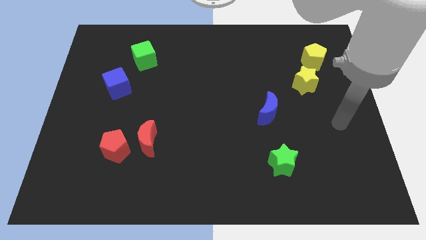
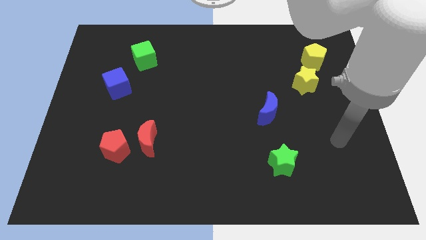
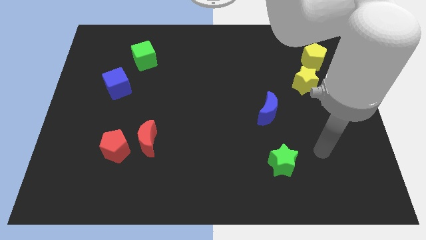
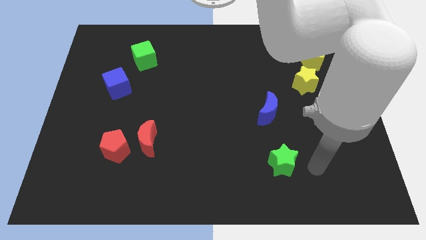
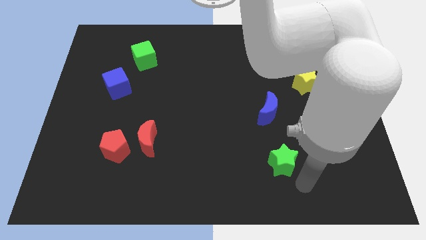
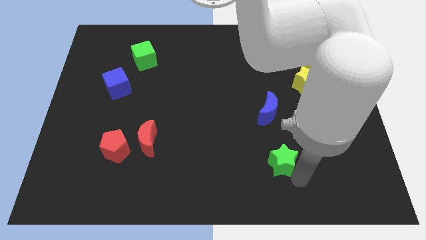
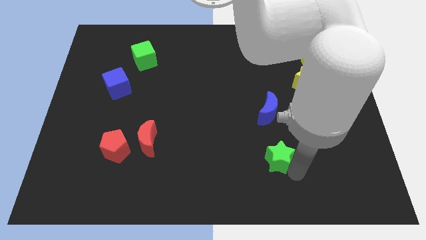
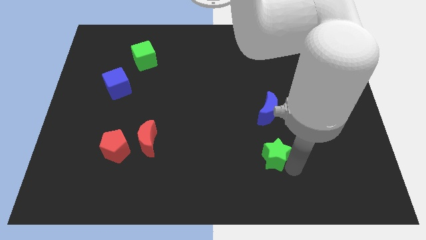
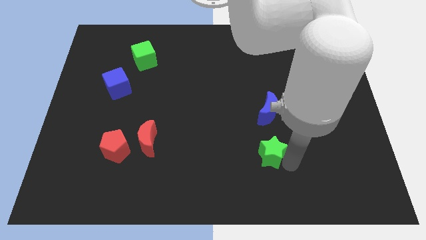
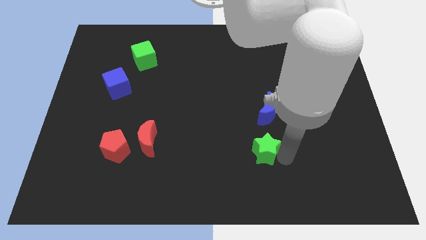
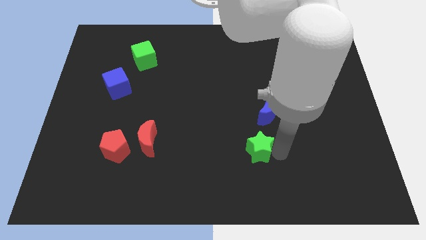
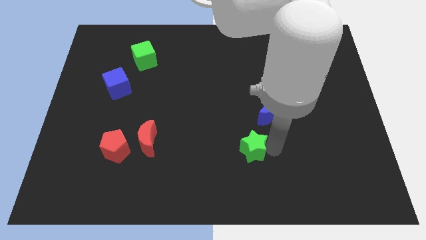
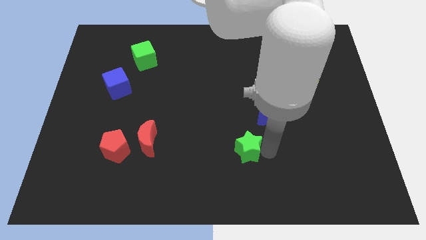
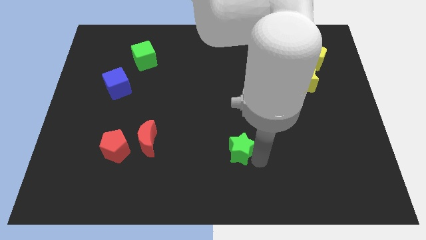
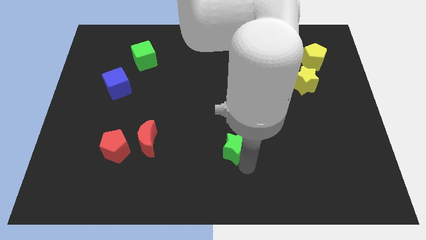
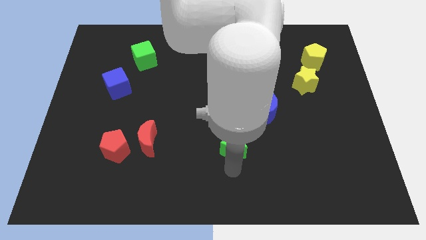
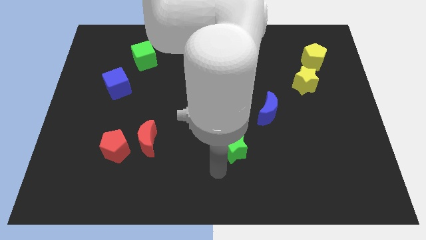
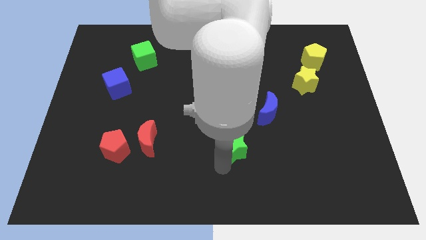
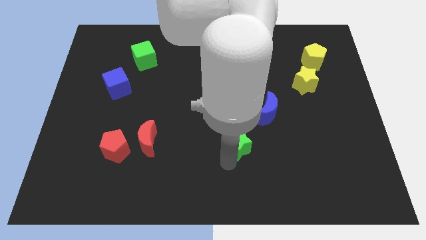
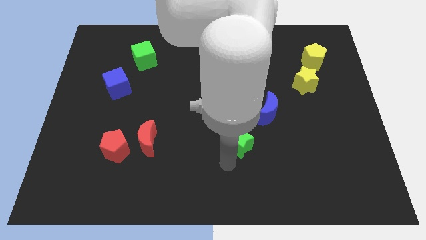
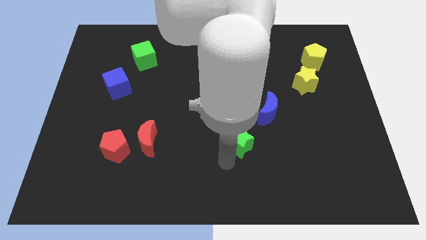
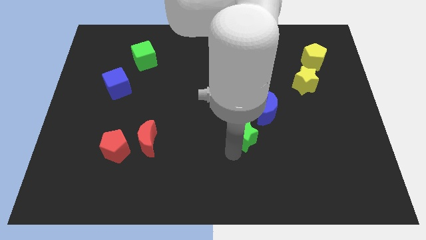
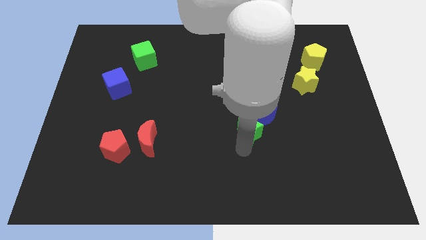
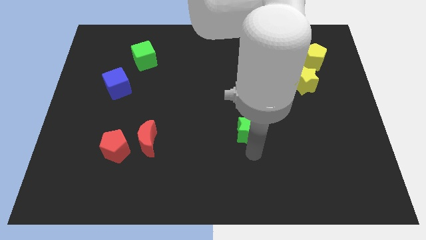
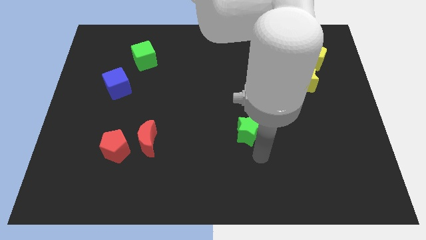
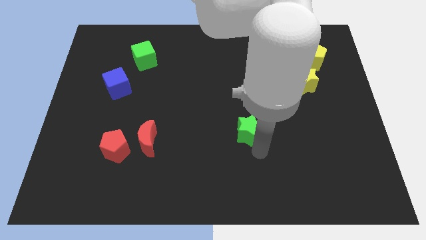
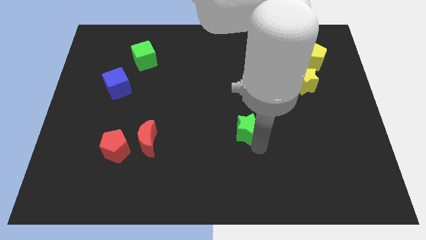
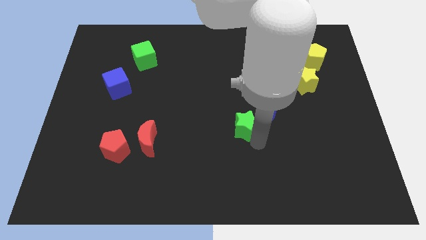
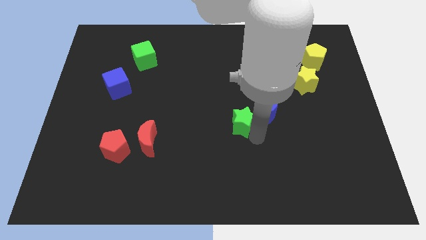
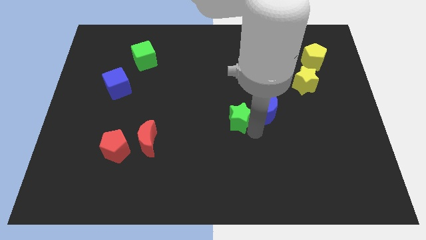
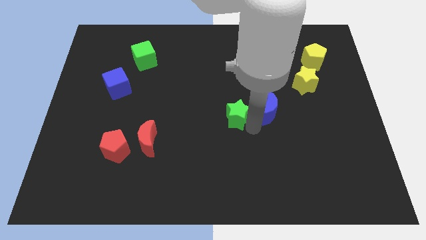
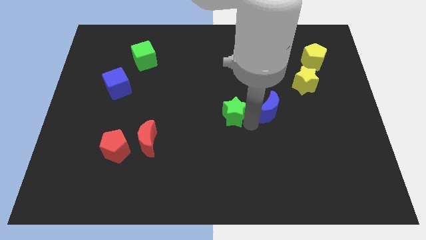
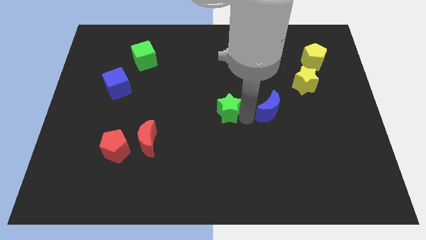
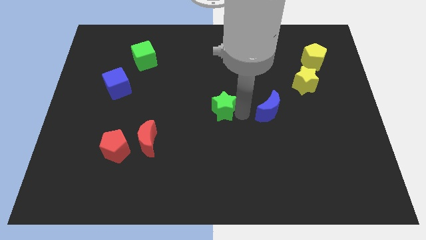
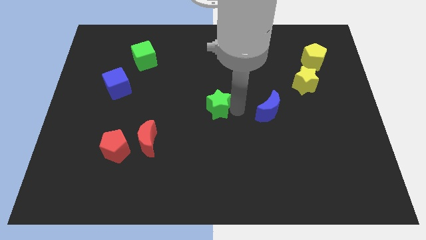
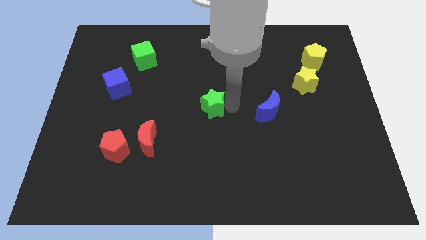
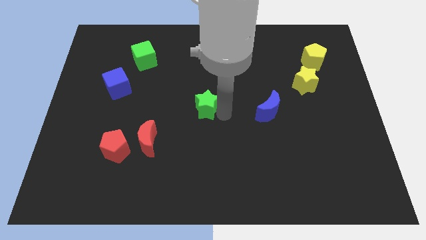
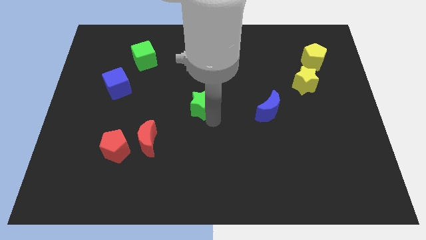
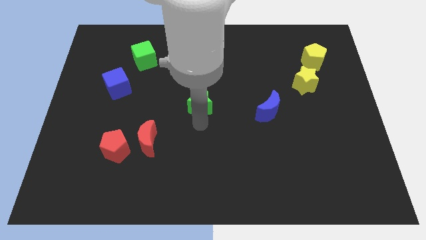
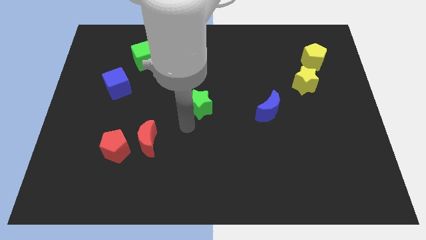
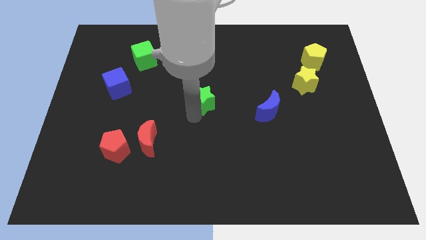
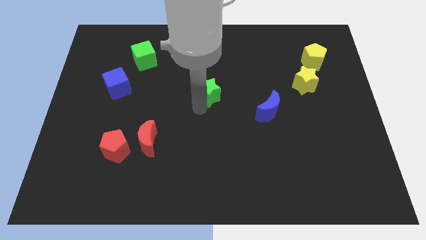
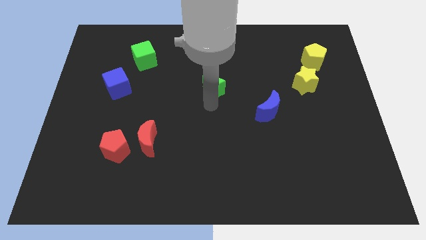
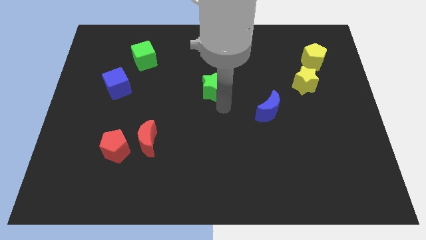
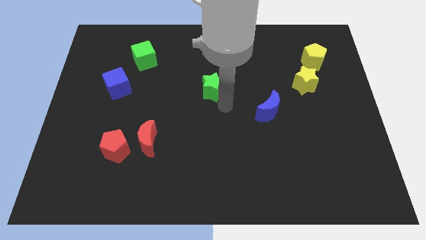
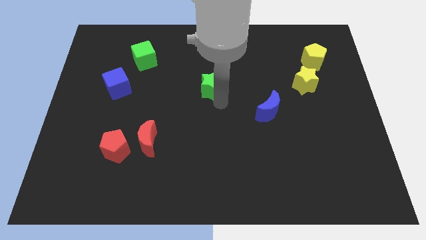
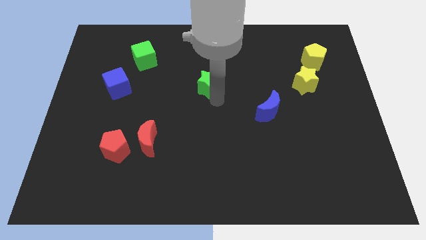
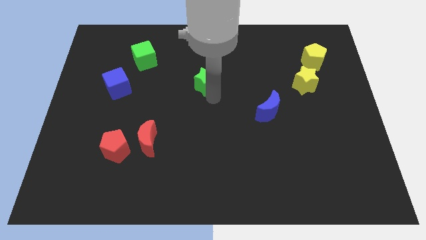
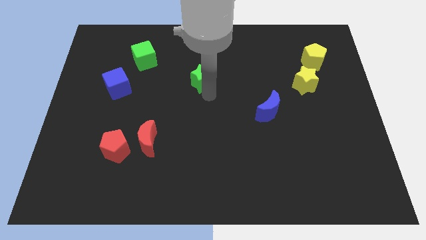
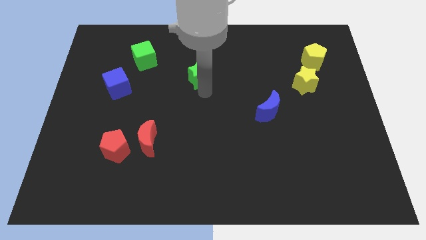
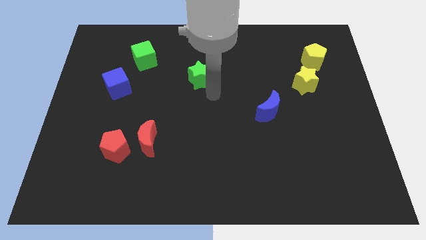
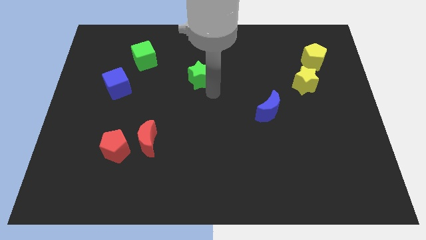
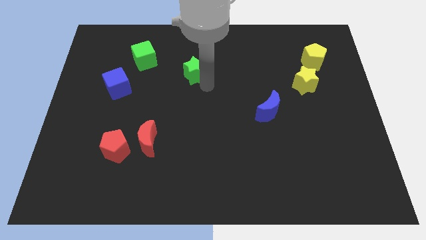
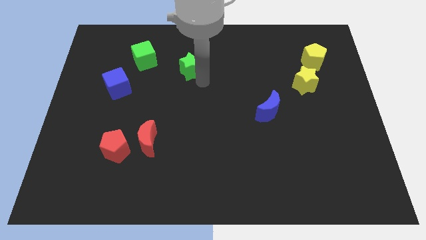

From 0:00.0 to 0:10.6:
put the green star to the right side of the green cube
